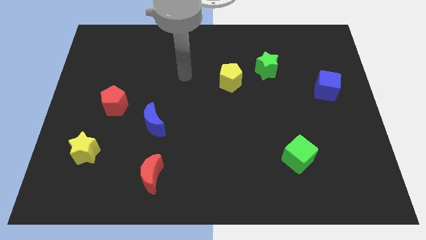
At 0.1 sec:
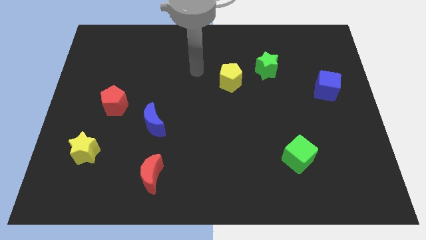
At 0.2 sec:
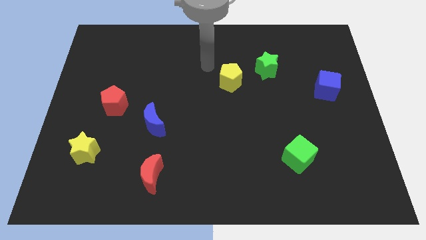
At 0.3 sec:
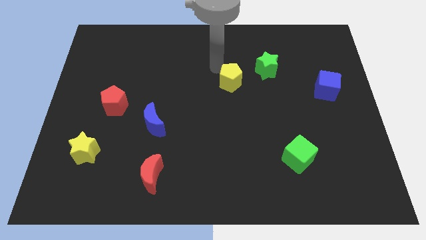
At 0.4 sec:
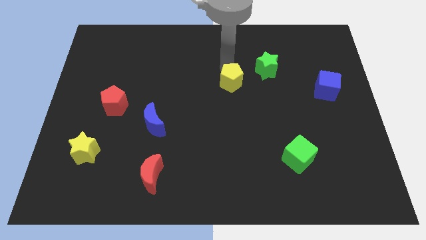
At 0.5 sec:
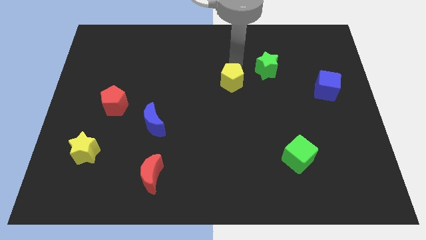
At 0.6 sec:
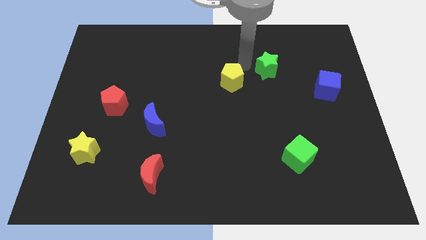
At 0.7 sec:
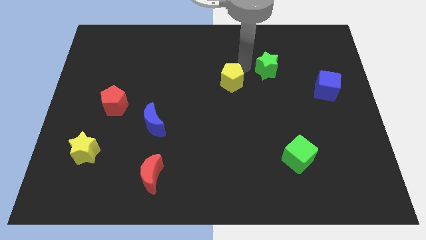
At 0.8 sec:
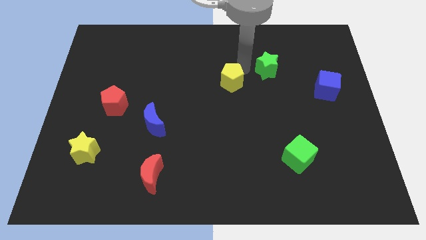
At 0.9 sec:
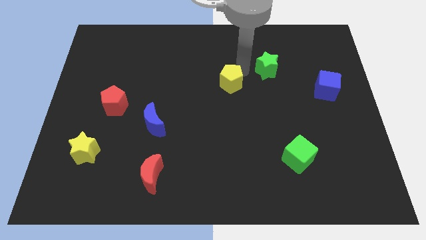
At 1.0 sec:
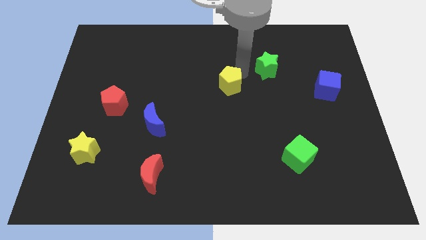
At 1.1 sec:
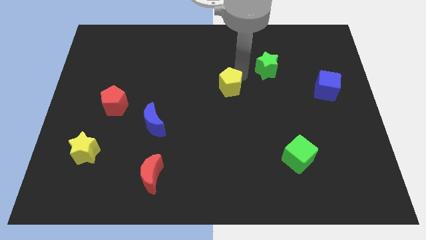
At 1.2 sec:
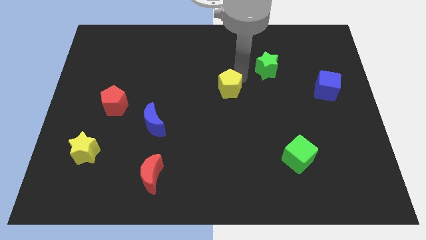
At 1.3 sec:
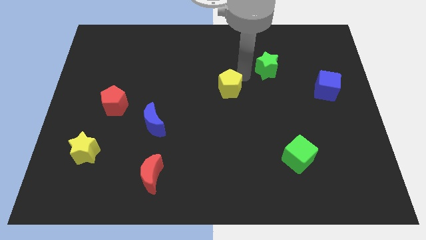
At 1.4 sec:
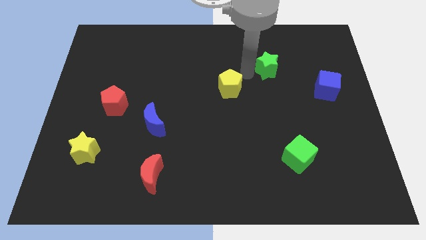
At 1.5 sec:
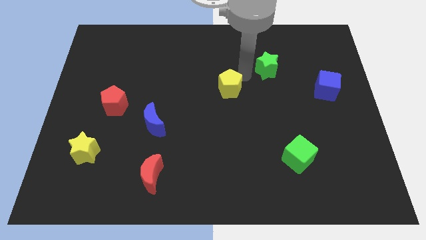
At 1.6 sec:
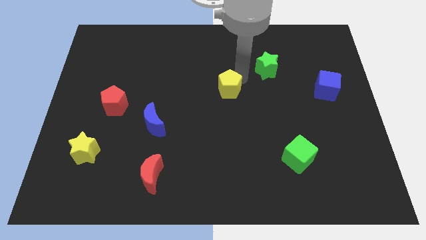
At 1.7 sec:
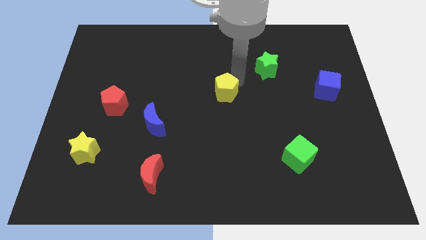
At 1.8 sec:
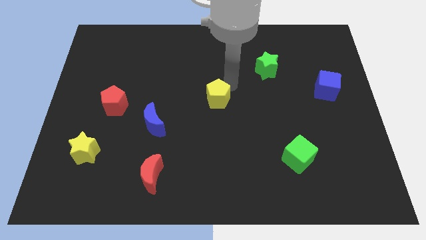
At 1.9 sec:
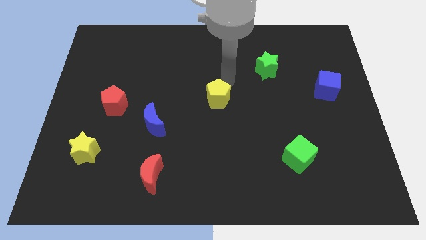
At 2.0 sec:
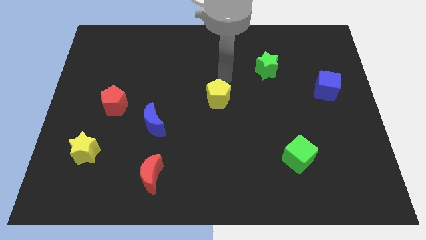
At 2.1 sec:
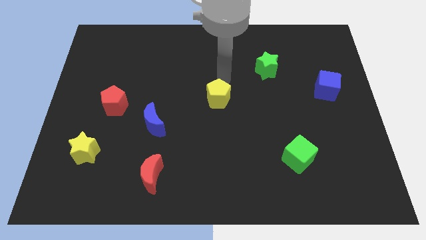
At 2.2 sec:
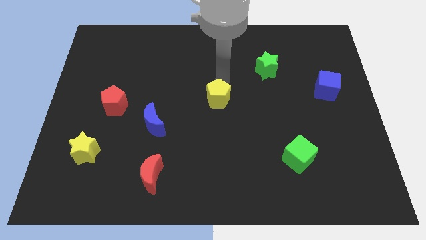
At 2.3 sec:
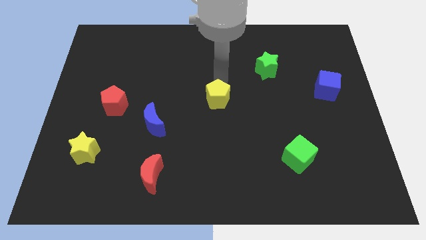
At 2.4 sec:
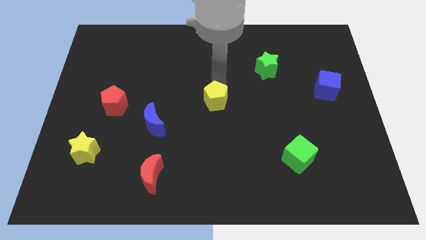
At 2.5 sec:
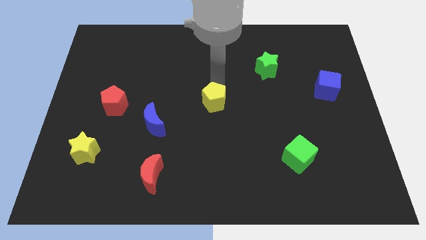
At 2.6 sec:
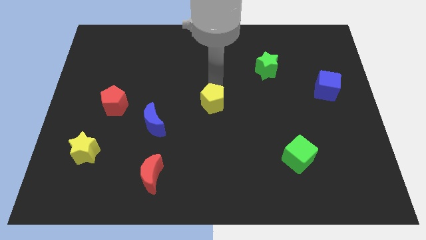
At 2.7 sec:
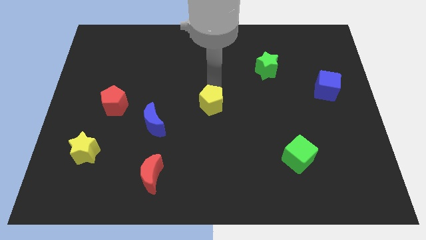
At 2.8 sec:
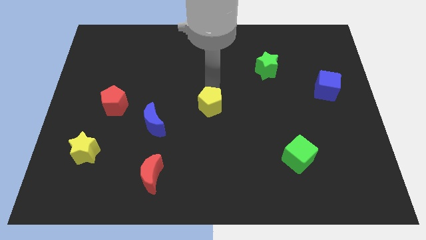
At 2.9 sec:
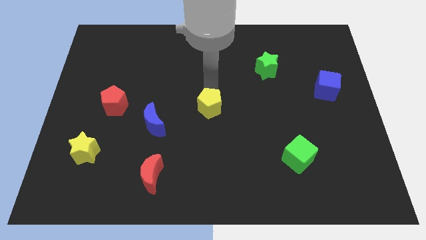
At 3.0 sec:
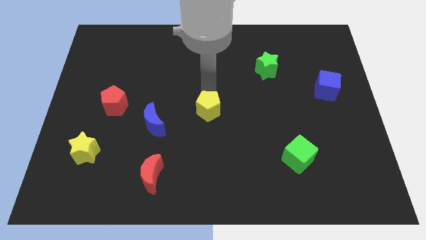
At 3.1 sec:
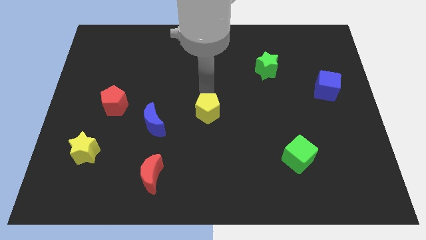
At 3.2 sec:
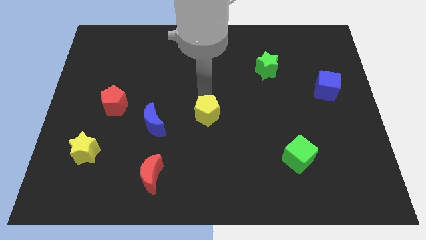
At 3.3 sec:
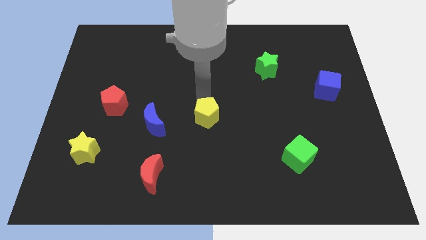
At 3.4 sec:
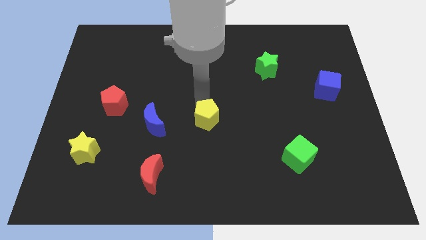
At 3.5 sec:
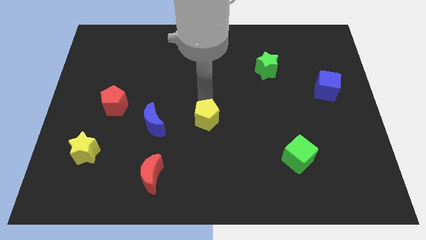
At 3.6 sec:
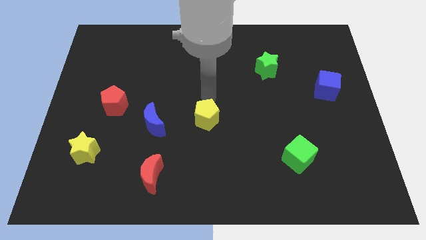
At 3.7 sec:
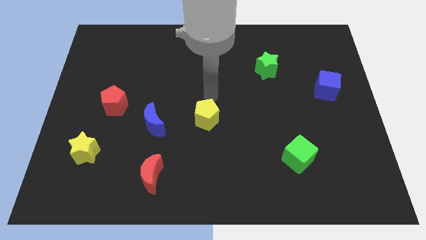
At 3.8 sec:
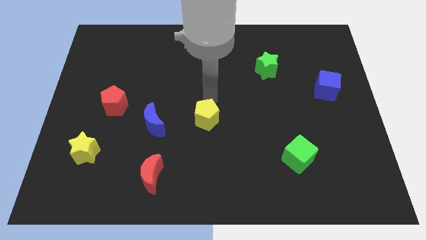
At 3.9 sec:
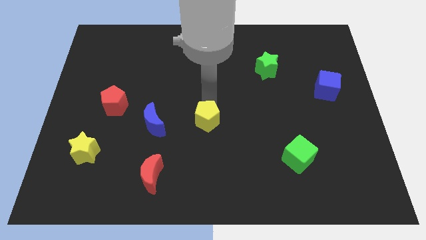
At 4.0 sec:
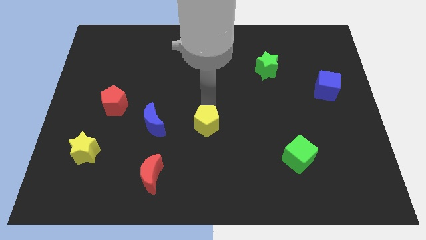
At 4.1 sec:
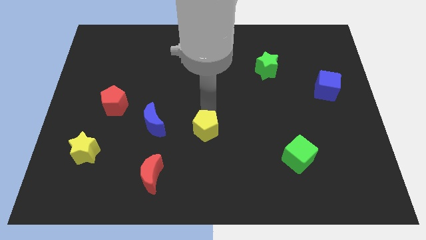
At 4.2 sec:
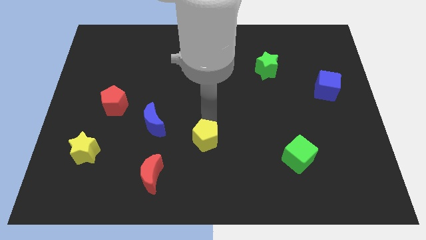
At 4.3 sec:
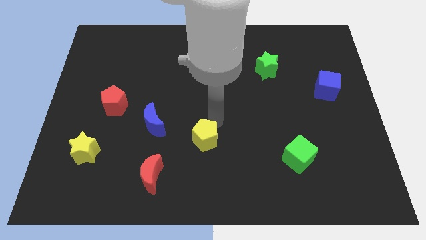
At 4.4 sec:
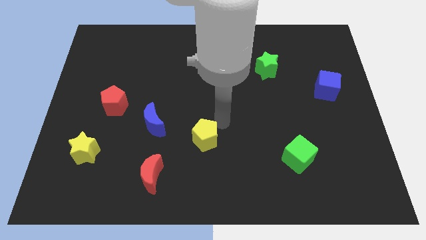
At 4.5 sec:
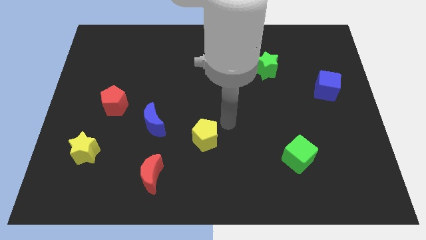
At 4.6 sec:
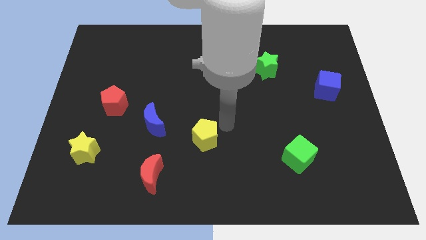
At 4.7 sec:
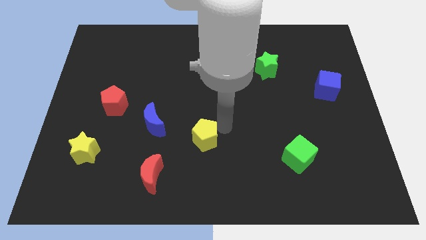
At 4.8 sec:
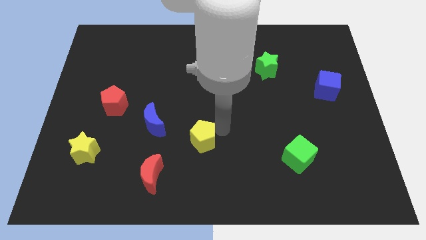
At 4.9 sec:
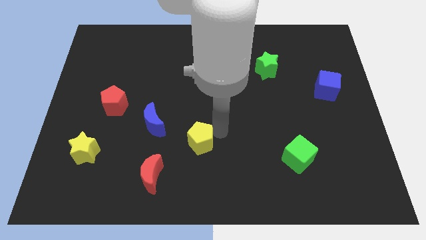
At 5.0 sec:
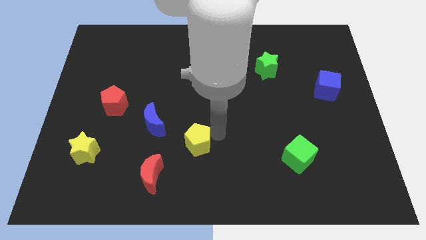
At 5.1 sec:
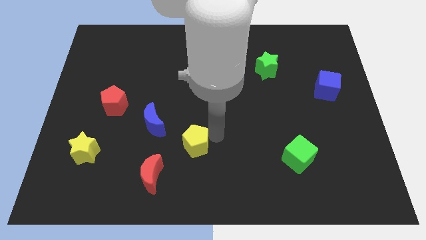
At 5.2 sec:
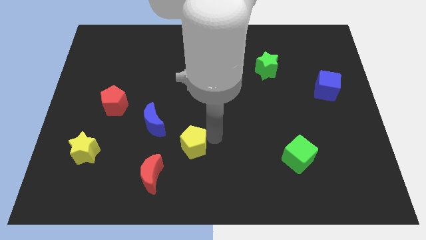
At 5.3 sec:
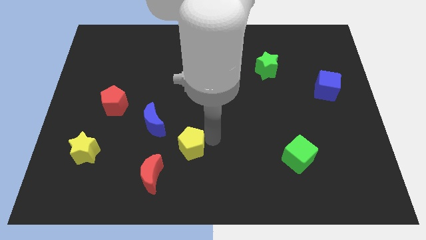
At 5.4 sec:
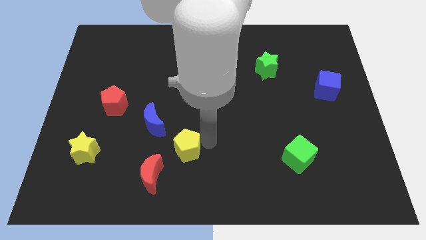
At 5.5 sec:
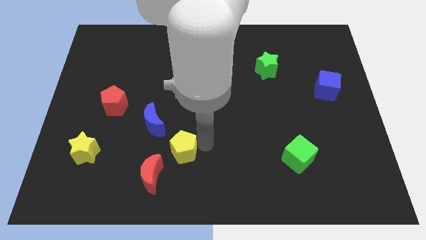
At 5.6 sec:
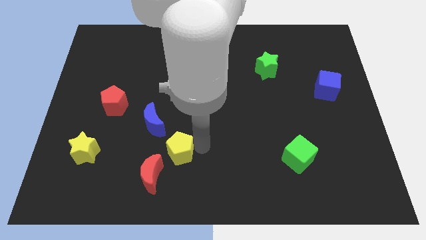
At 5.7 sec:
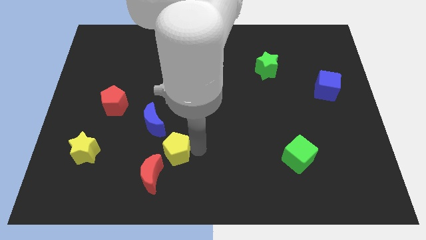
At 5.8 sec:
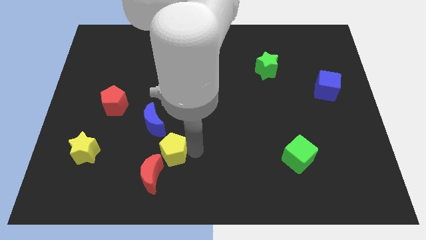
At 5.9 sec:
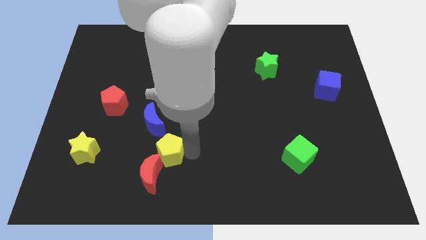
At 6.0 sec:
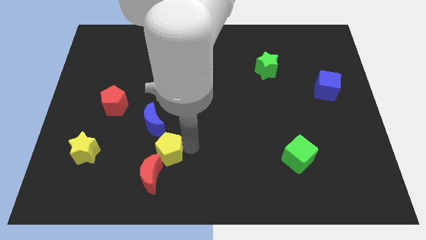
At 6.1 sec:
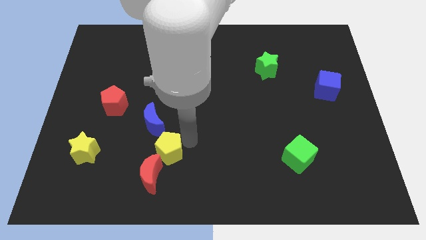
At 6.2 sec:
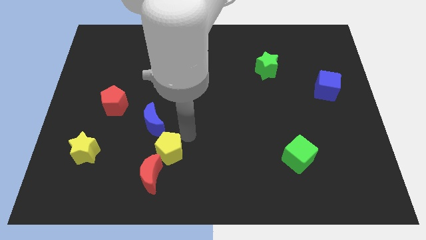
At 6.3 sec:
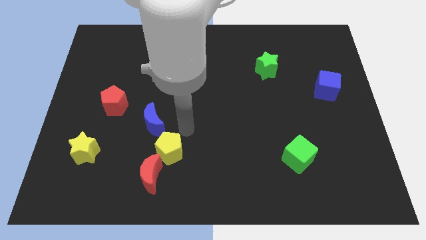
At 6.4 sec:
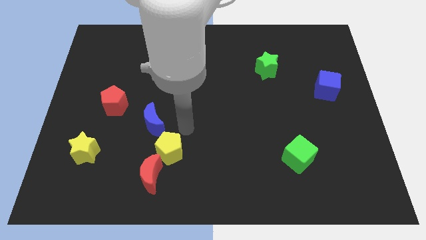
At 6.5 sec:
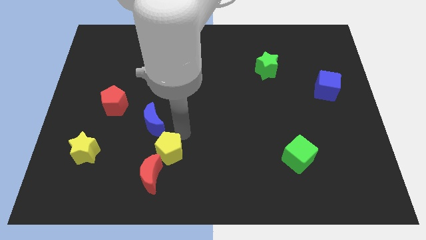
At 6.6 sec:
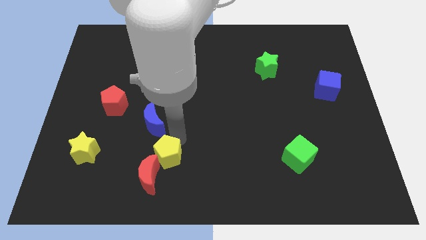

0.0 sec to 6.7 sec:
put the yellow pentagon next to the red moon
